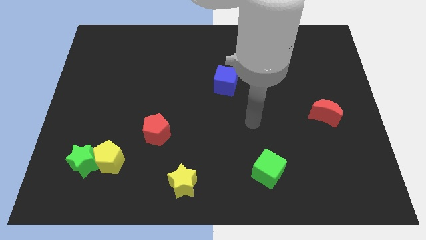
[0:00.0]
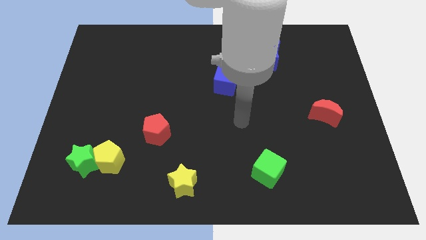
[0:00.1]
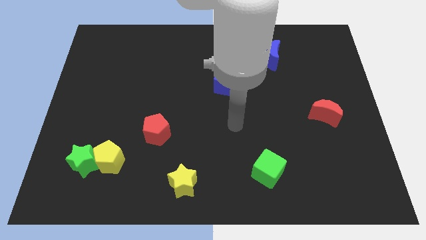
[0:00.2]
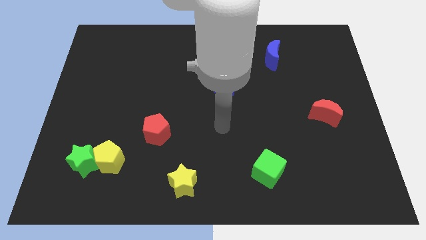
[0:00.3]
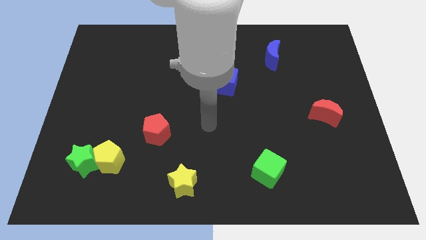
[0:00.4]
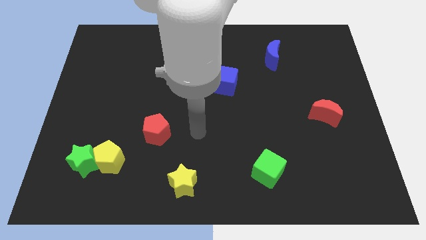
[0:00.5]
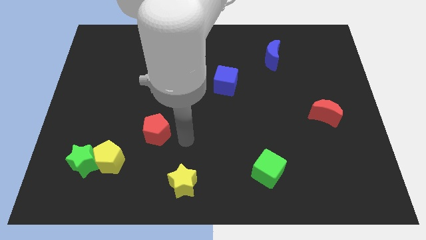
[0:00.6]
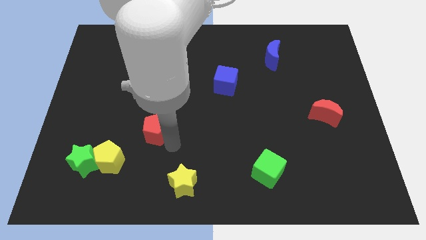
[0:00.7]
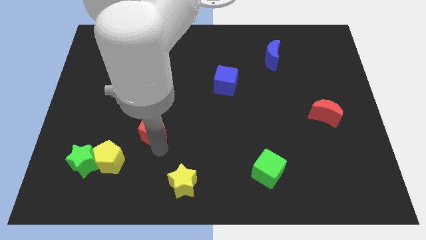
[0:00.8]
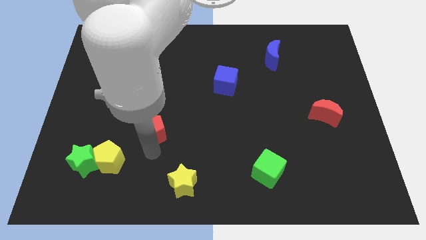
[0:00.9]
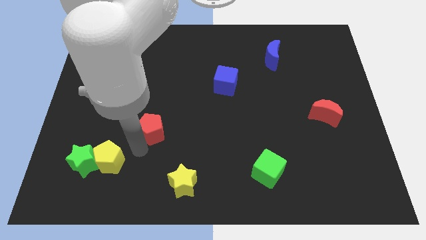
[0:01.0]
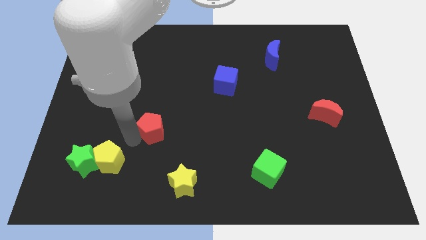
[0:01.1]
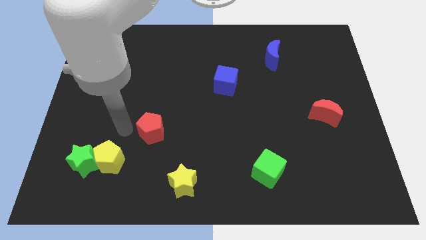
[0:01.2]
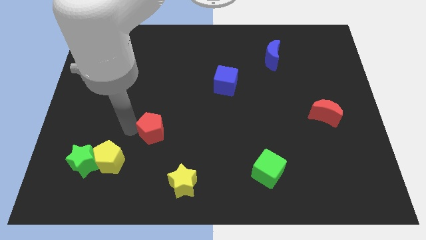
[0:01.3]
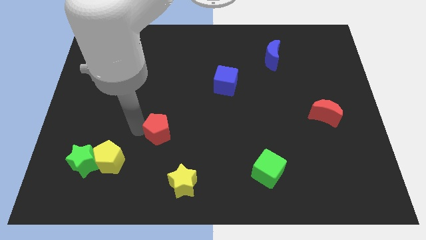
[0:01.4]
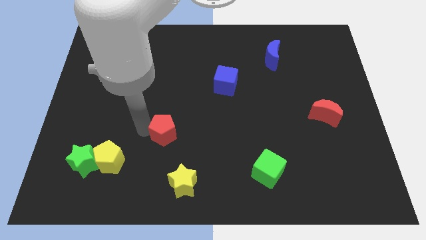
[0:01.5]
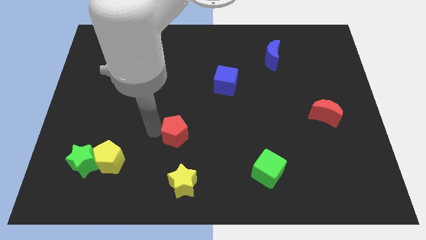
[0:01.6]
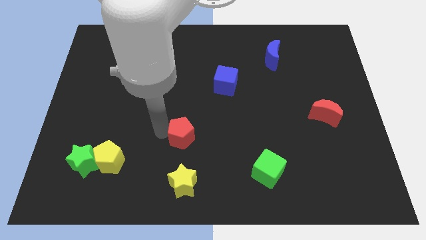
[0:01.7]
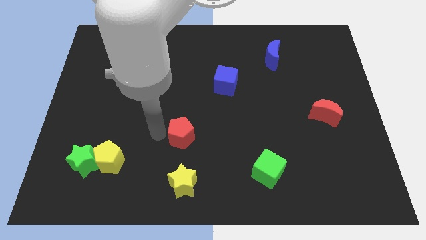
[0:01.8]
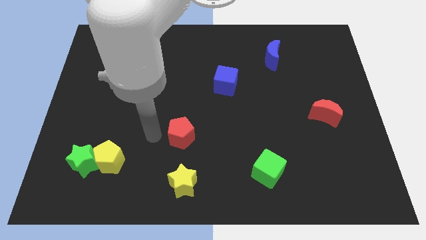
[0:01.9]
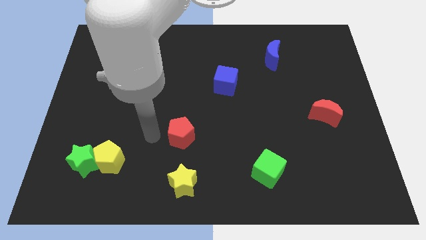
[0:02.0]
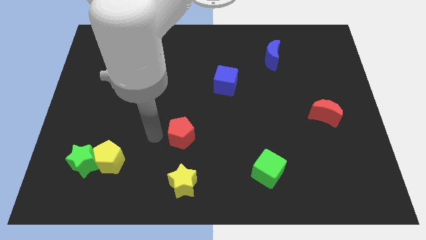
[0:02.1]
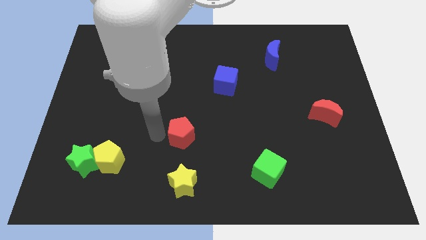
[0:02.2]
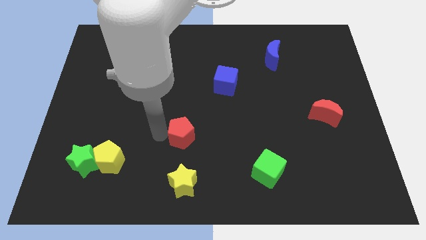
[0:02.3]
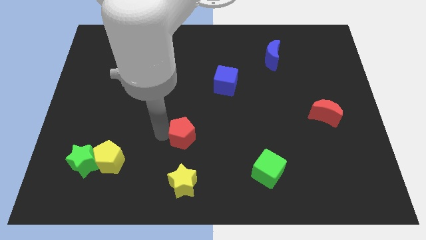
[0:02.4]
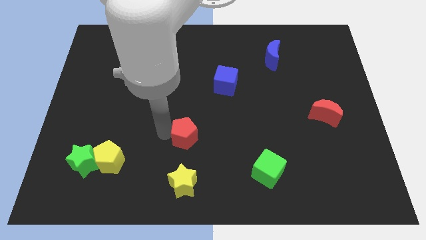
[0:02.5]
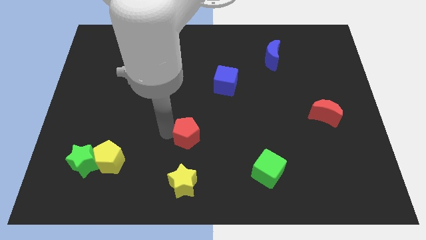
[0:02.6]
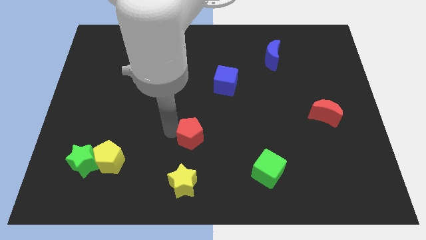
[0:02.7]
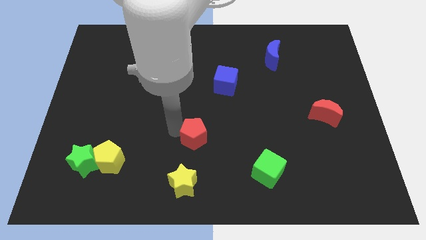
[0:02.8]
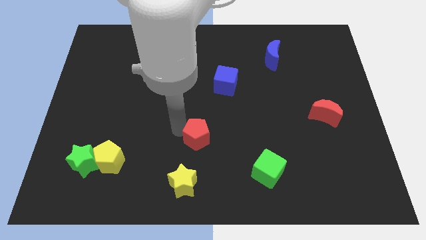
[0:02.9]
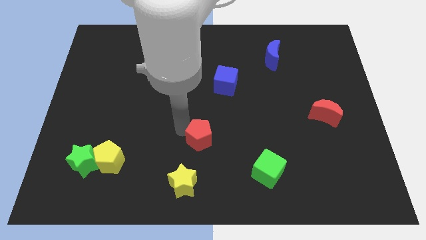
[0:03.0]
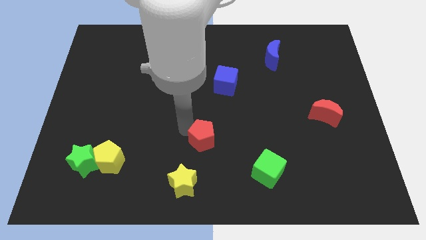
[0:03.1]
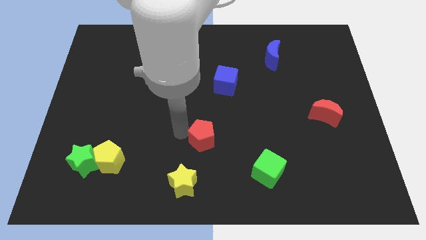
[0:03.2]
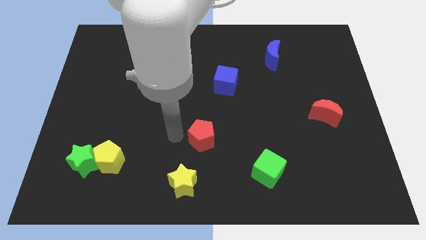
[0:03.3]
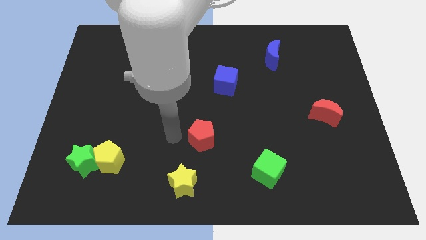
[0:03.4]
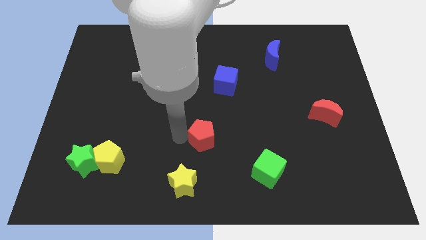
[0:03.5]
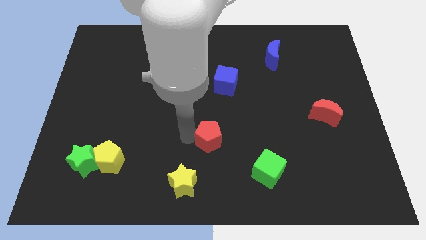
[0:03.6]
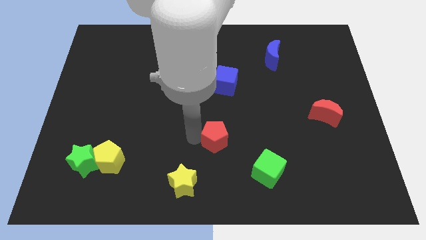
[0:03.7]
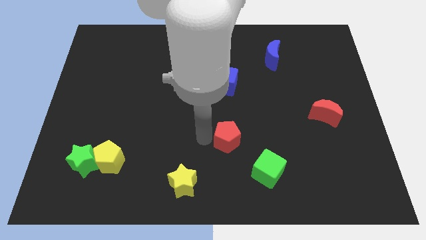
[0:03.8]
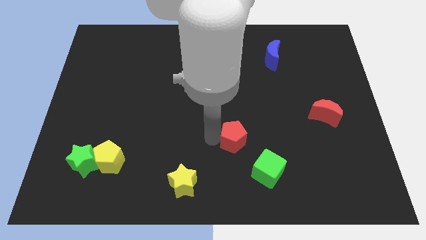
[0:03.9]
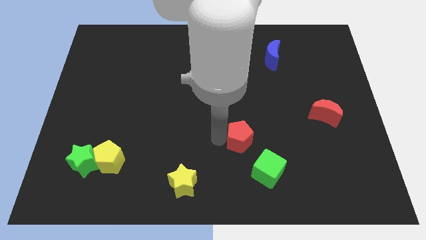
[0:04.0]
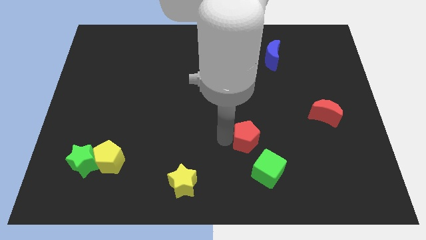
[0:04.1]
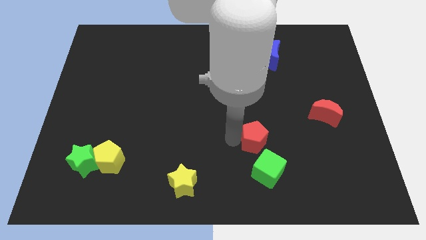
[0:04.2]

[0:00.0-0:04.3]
slide the red pentagon right

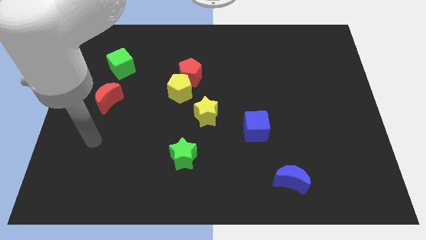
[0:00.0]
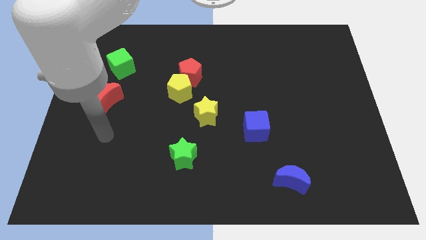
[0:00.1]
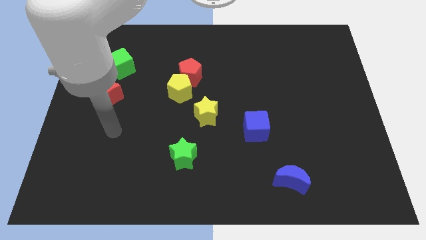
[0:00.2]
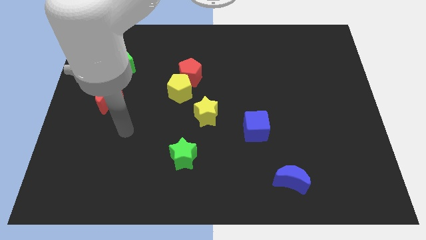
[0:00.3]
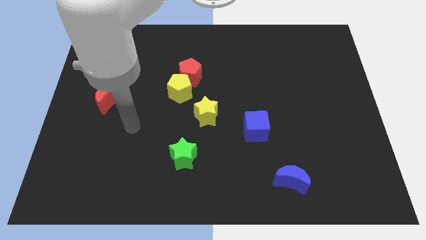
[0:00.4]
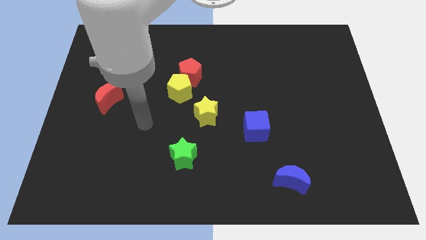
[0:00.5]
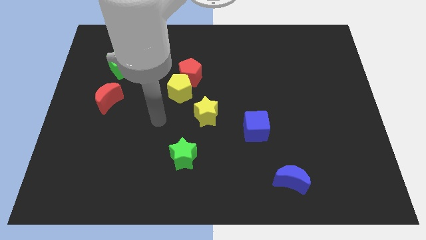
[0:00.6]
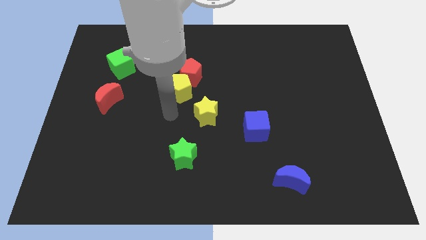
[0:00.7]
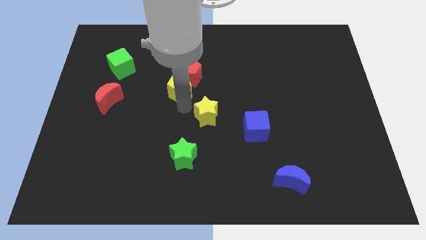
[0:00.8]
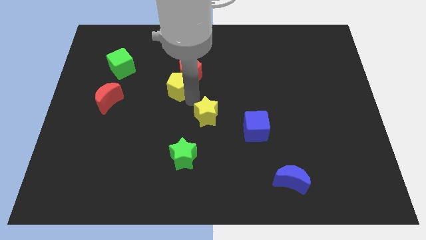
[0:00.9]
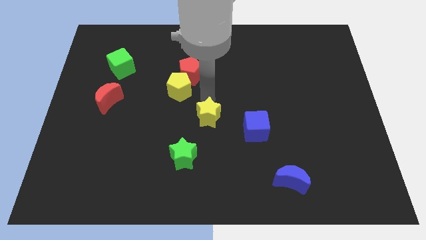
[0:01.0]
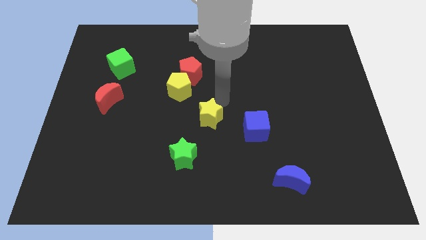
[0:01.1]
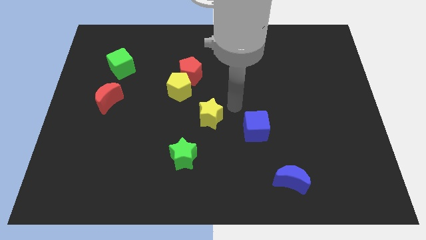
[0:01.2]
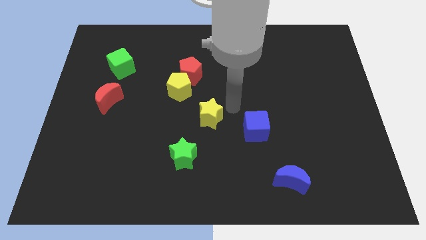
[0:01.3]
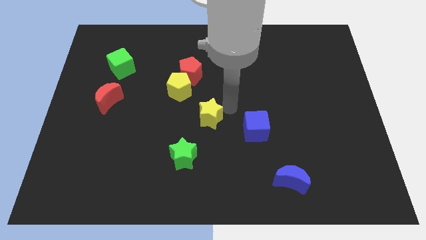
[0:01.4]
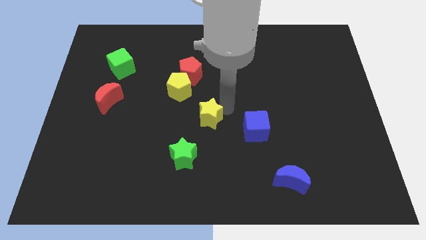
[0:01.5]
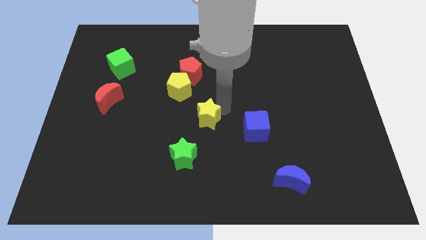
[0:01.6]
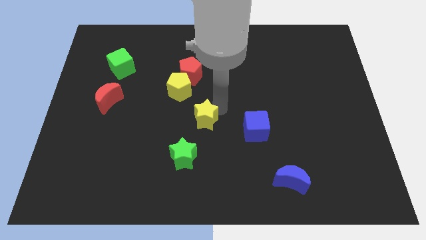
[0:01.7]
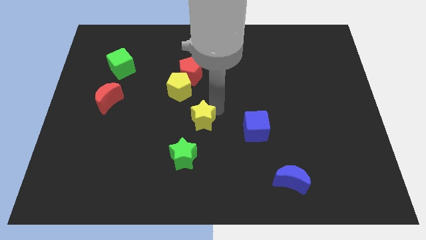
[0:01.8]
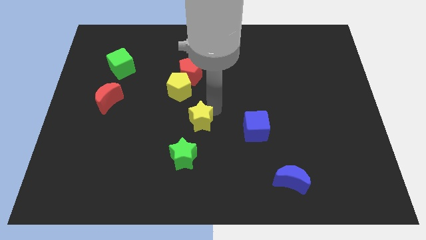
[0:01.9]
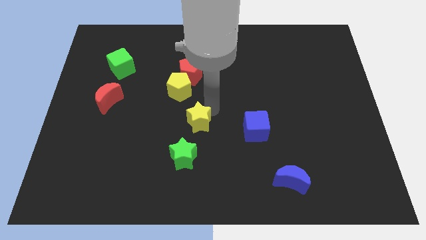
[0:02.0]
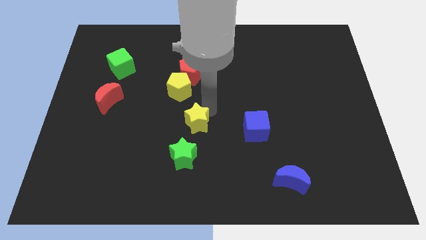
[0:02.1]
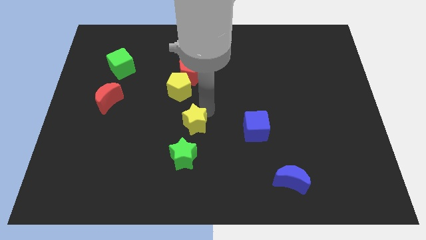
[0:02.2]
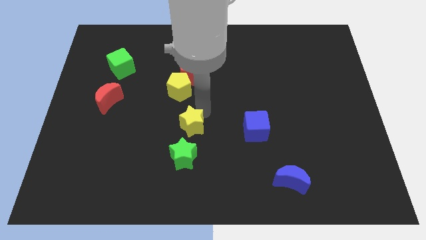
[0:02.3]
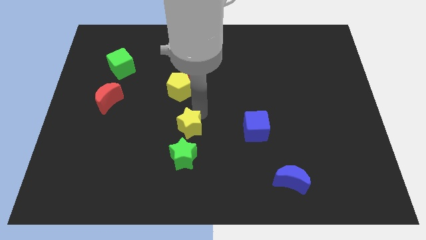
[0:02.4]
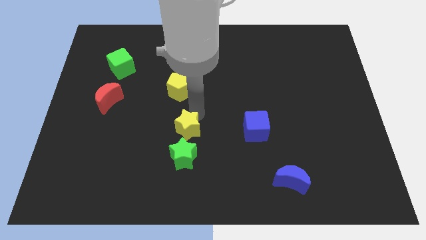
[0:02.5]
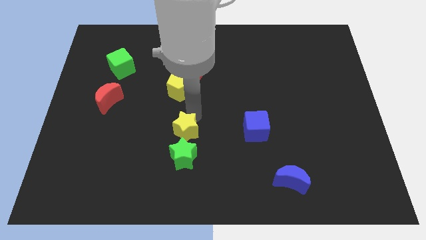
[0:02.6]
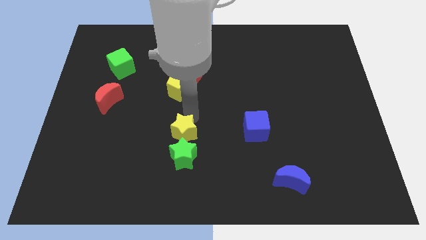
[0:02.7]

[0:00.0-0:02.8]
slide the yellow star down and left a little

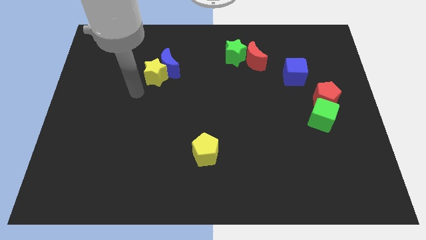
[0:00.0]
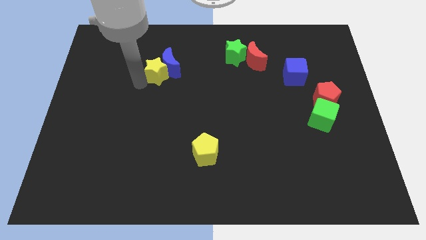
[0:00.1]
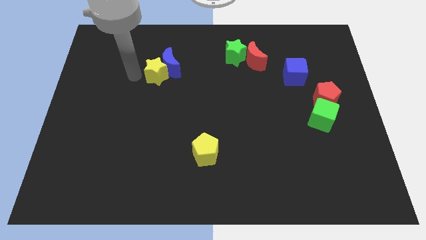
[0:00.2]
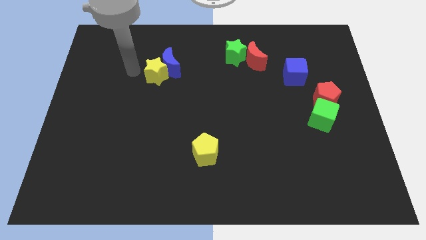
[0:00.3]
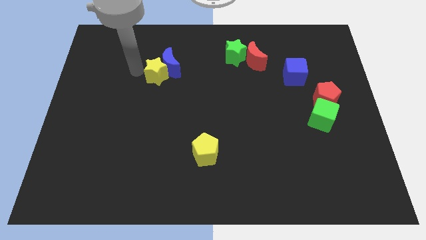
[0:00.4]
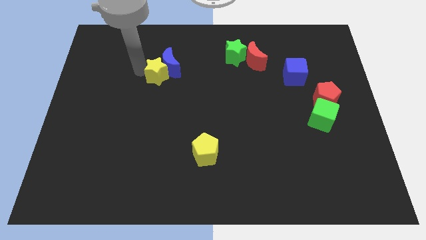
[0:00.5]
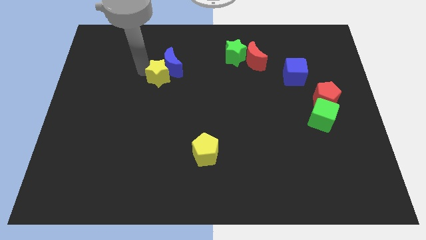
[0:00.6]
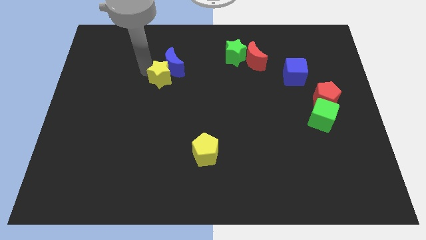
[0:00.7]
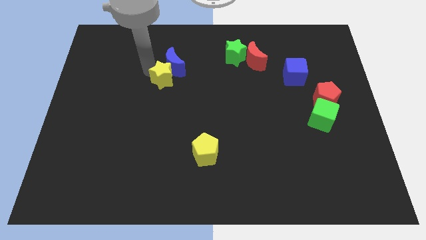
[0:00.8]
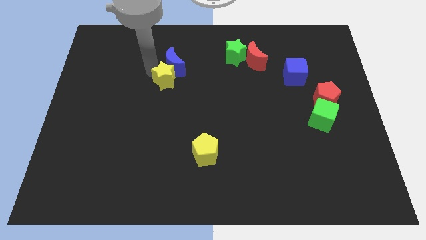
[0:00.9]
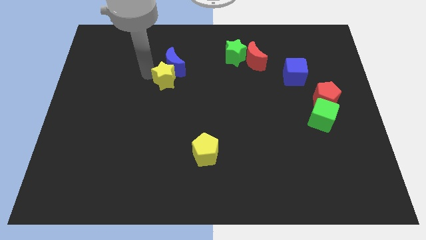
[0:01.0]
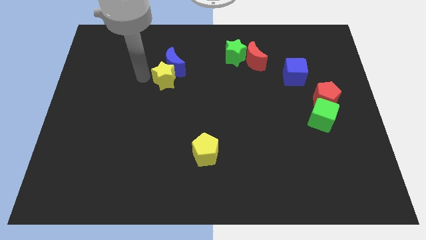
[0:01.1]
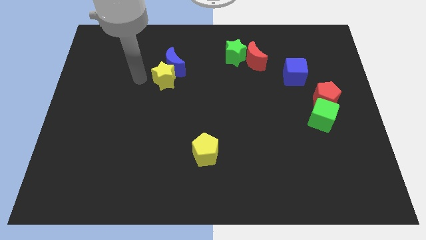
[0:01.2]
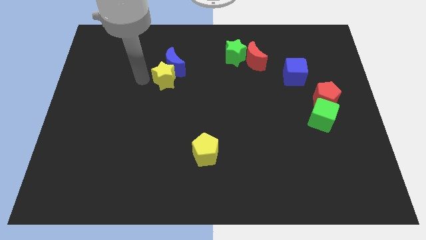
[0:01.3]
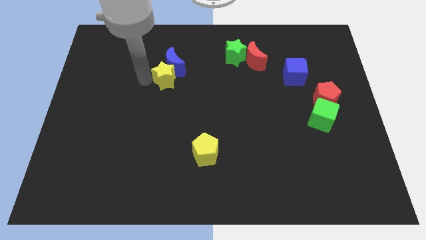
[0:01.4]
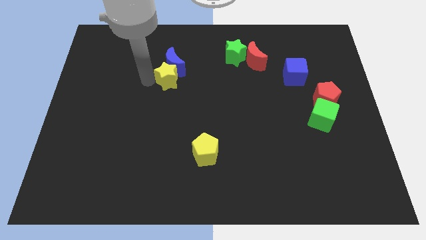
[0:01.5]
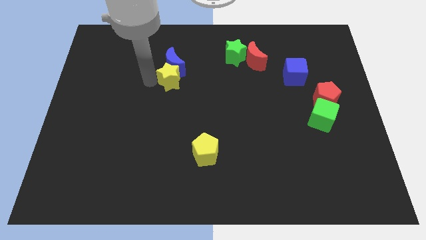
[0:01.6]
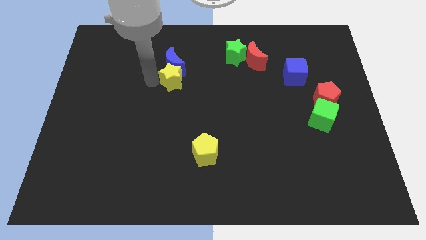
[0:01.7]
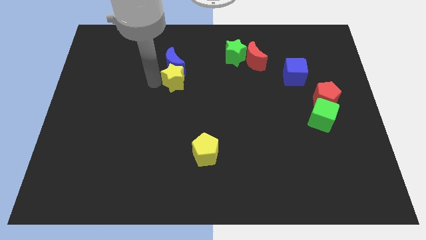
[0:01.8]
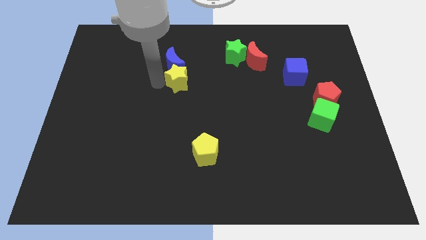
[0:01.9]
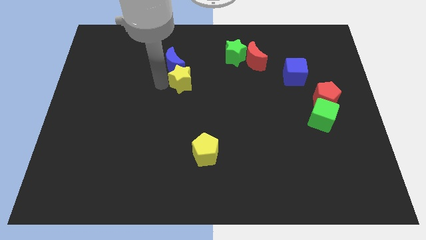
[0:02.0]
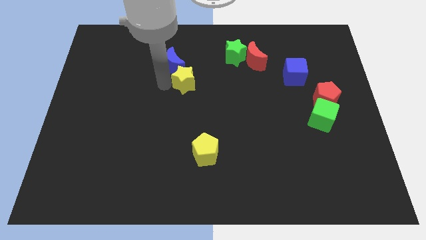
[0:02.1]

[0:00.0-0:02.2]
slightly push the yellow star right
